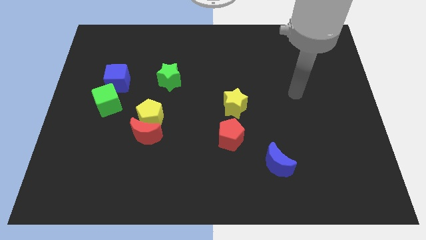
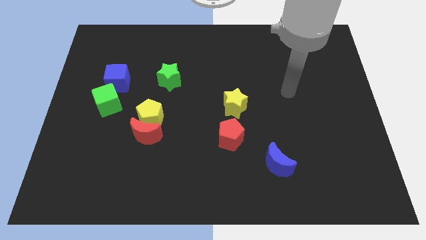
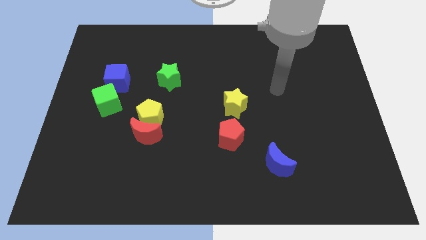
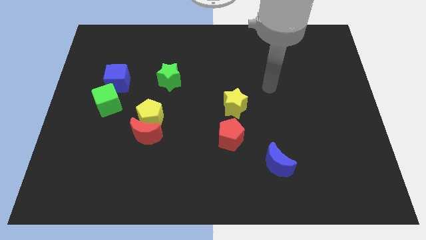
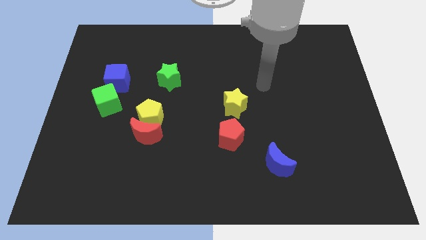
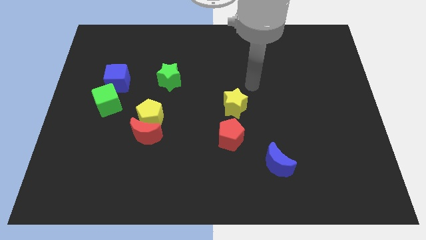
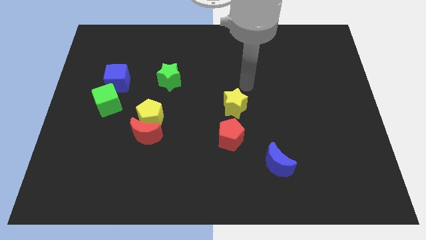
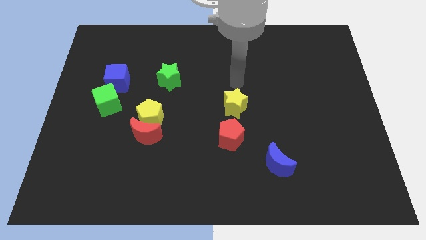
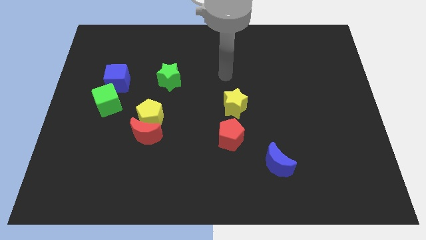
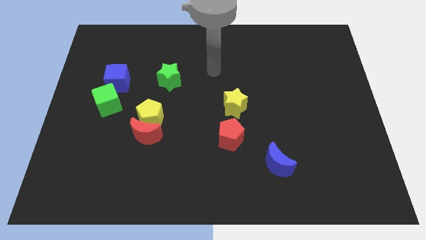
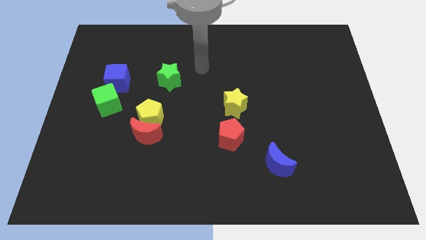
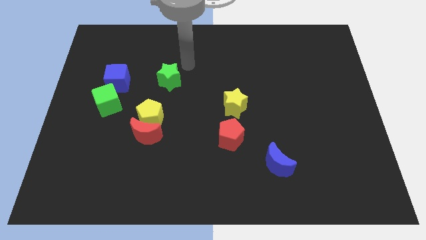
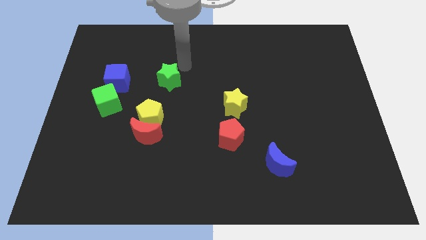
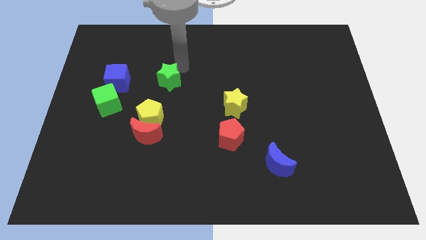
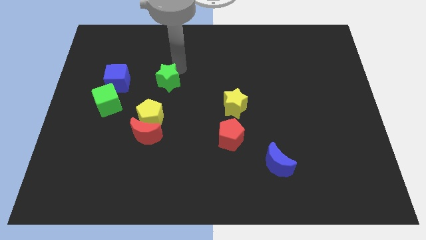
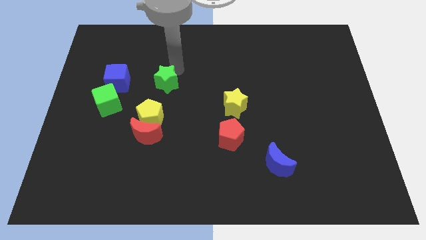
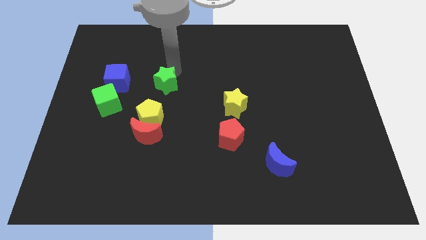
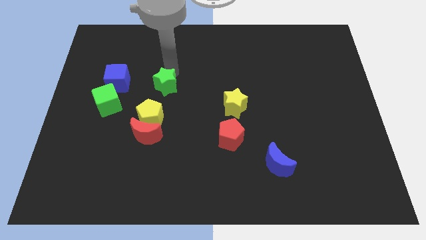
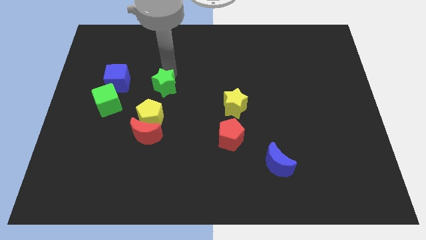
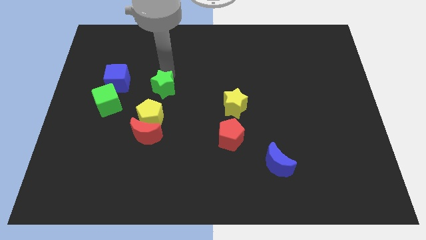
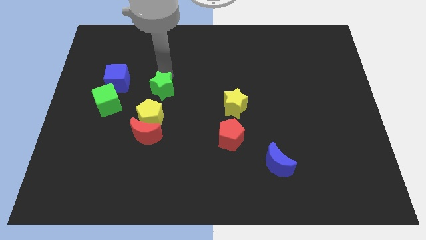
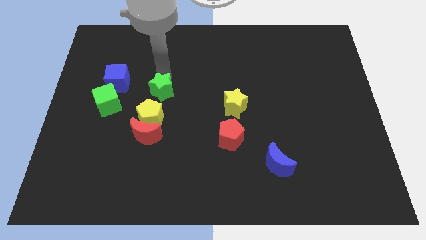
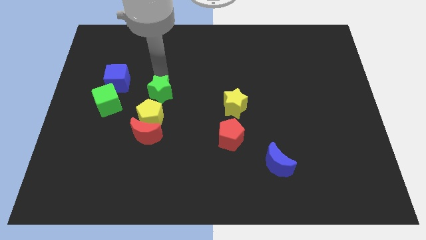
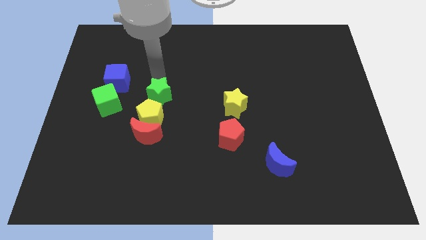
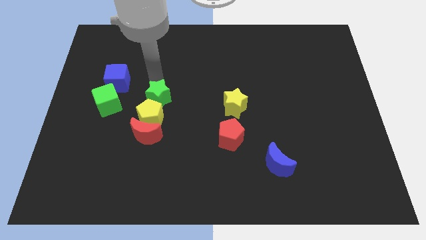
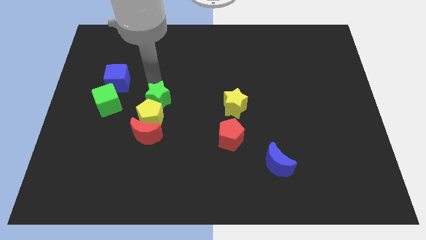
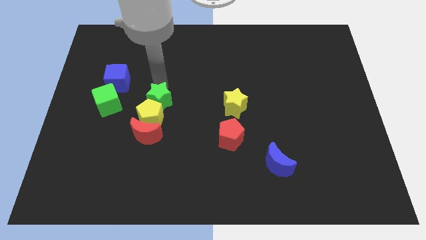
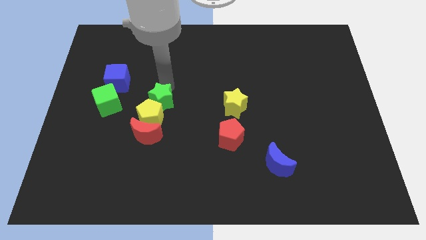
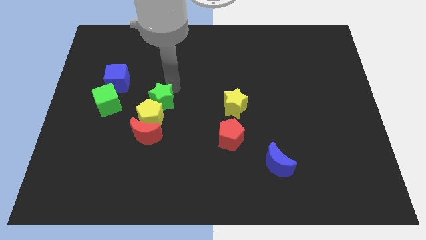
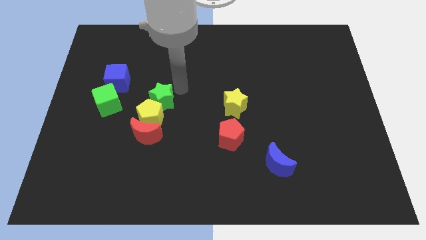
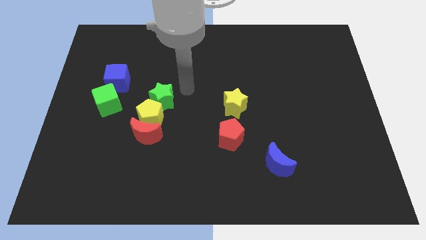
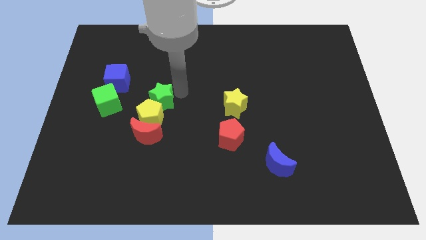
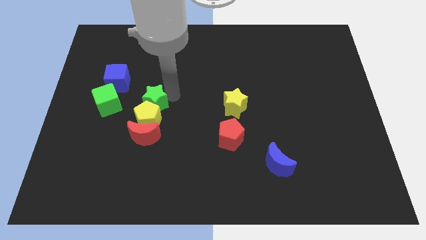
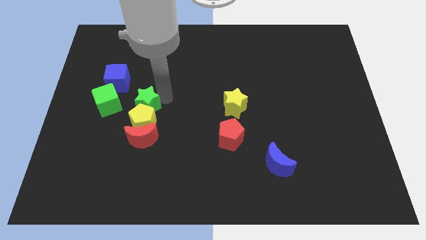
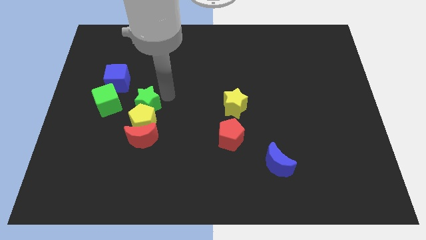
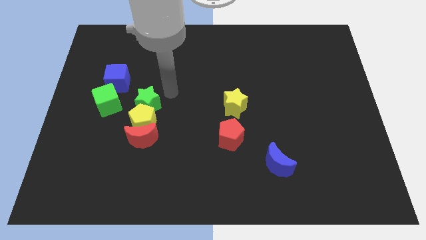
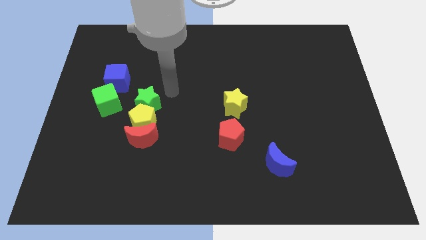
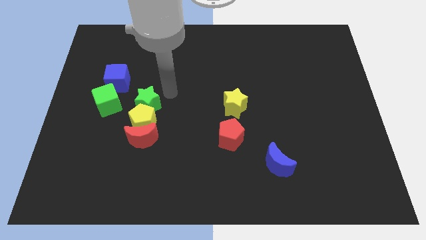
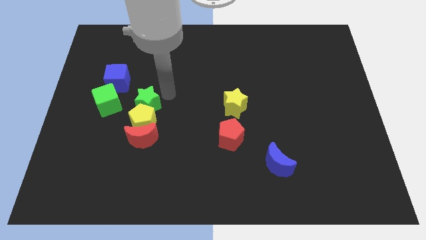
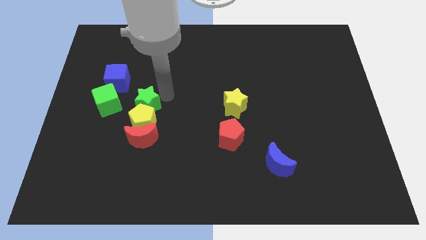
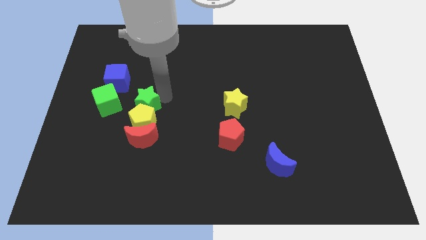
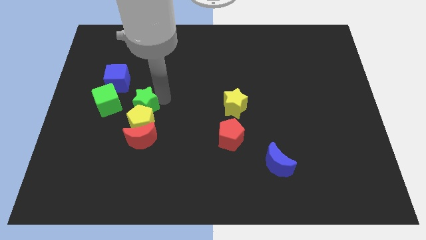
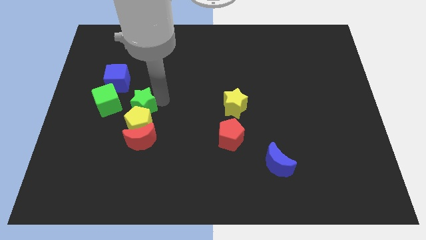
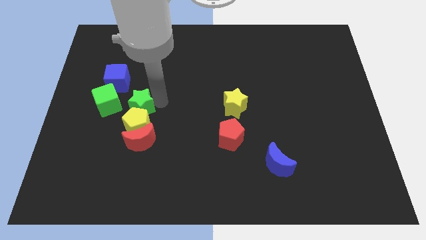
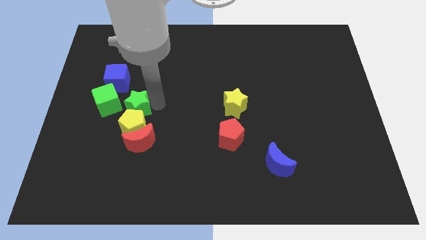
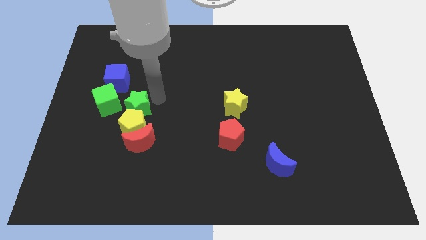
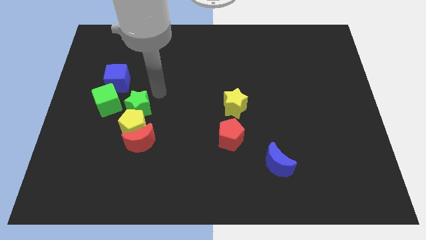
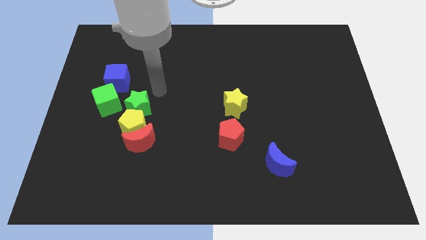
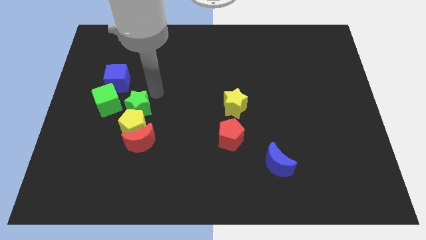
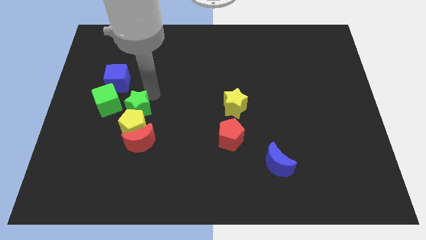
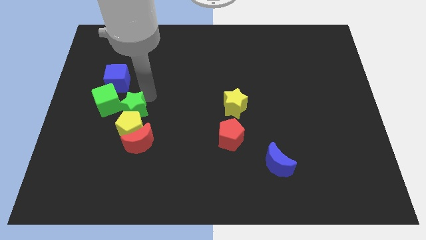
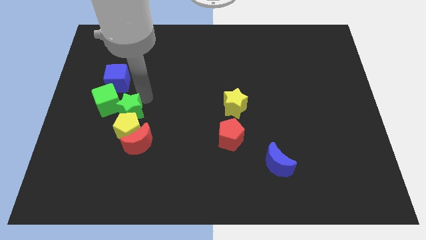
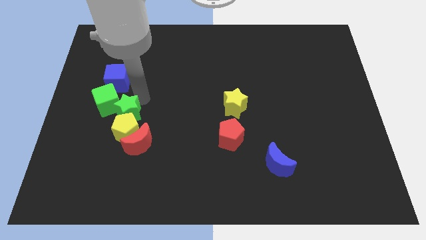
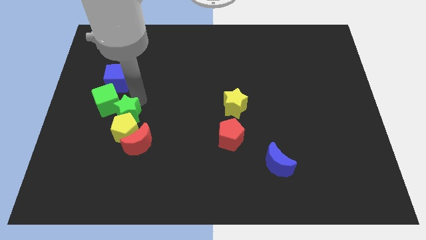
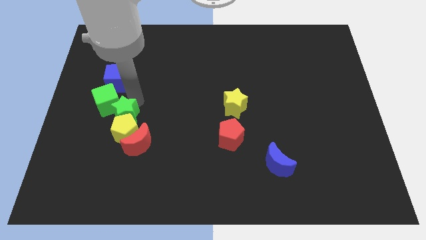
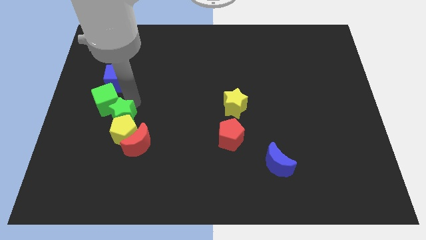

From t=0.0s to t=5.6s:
move the green star to the bottom of the green cube
